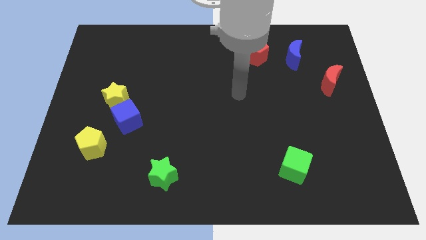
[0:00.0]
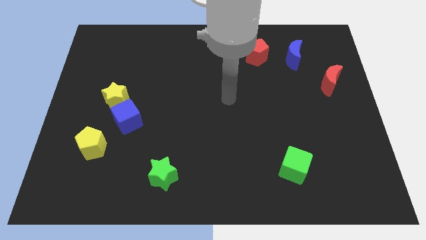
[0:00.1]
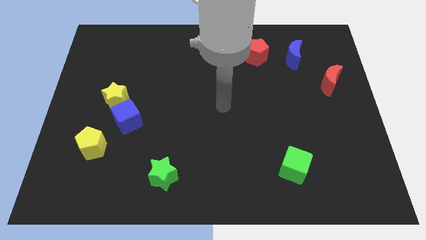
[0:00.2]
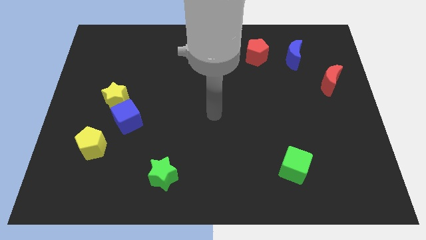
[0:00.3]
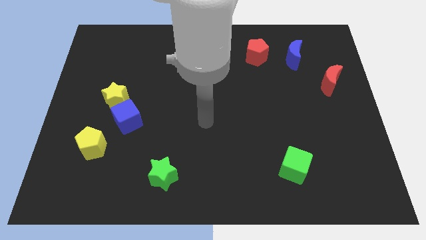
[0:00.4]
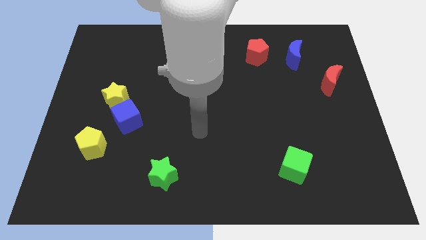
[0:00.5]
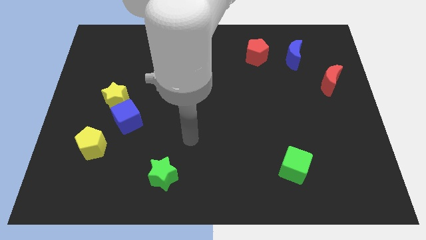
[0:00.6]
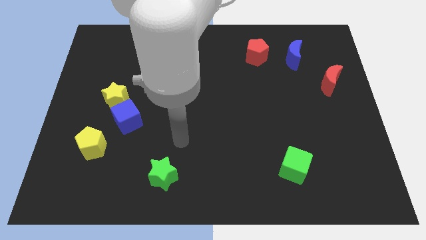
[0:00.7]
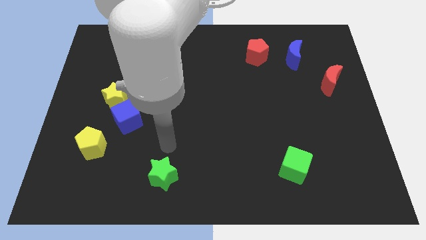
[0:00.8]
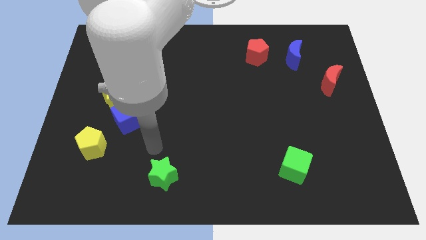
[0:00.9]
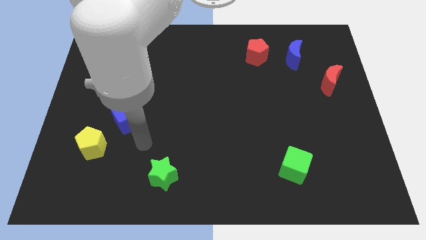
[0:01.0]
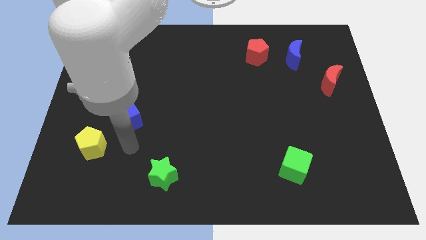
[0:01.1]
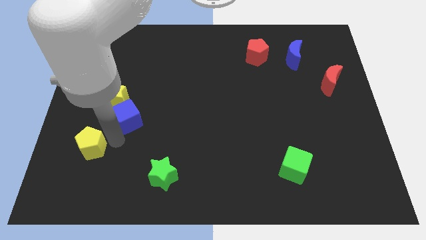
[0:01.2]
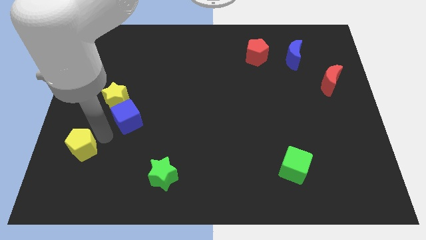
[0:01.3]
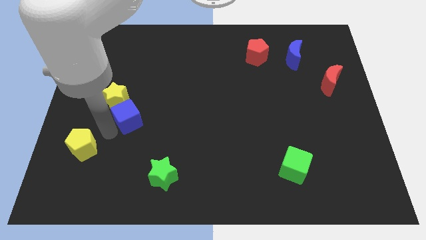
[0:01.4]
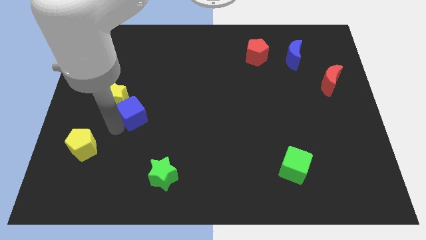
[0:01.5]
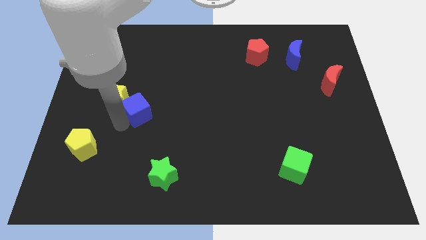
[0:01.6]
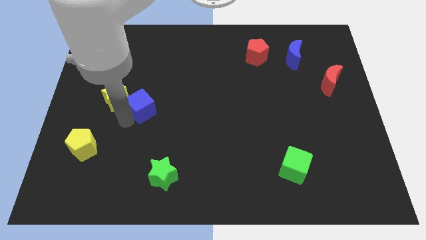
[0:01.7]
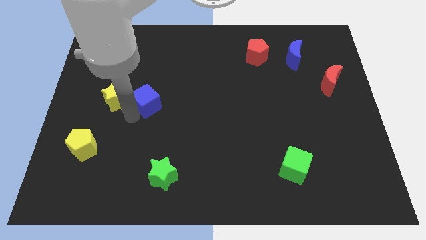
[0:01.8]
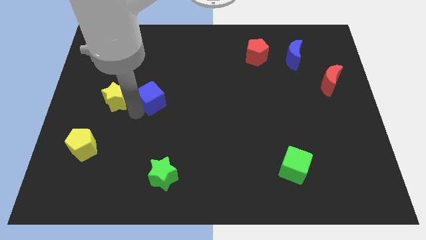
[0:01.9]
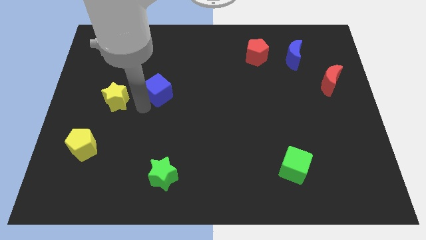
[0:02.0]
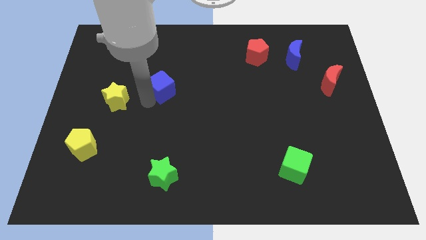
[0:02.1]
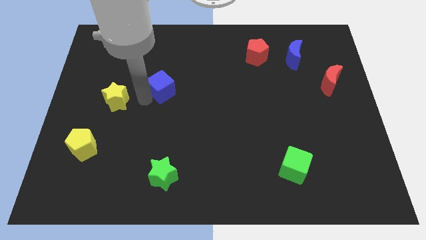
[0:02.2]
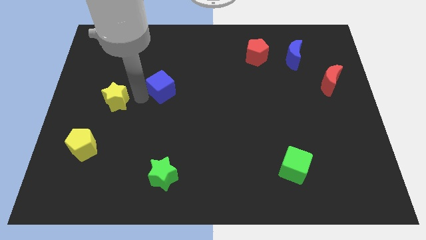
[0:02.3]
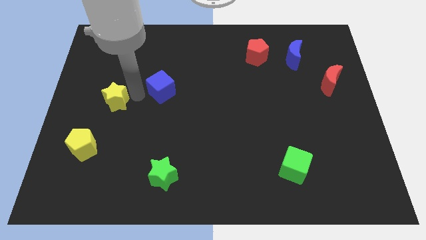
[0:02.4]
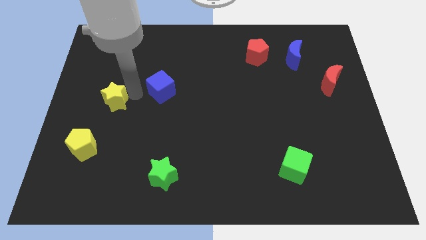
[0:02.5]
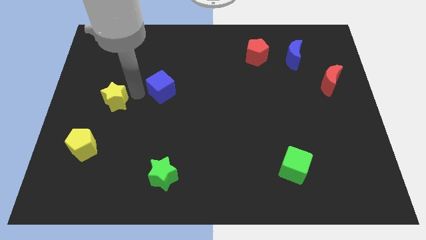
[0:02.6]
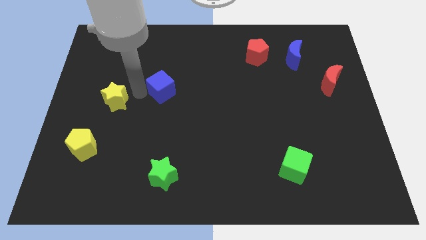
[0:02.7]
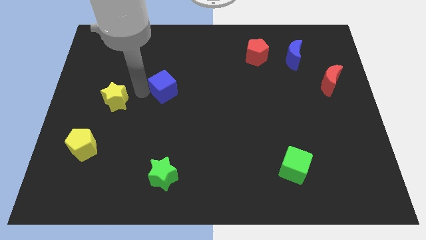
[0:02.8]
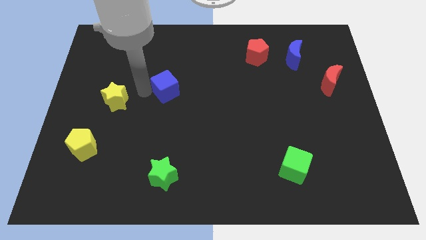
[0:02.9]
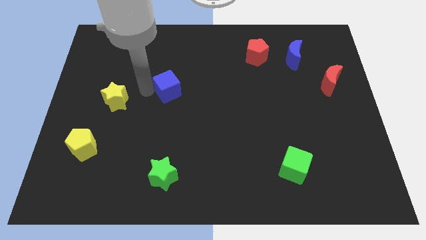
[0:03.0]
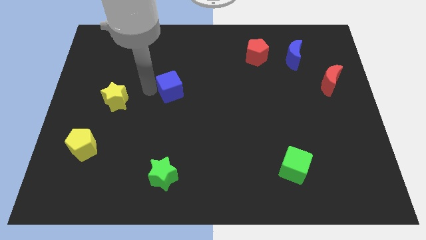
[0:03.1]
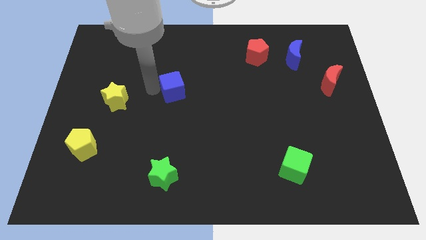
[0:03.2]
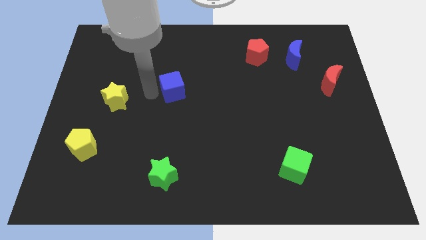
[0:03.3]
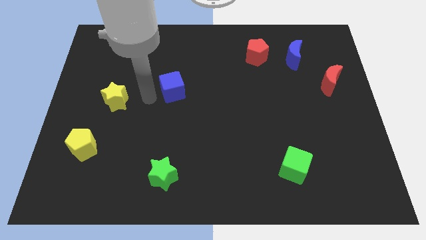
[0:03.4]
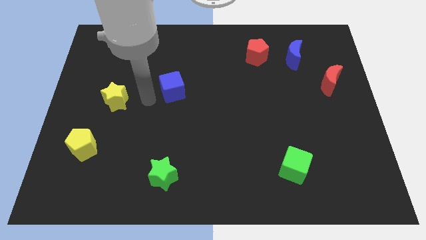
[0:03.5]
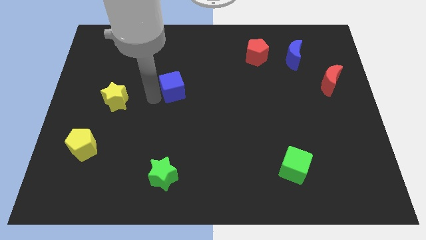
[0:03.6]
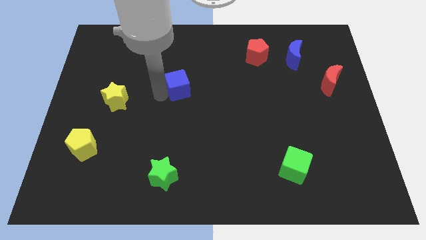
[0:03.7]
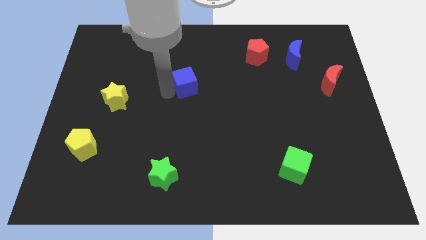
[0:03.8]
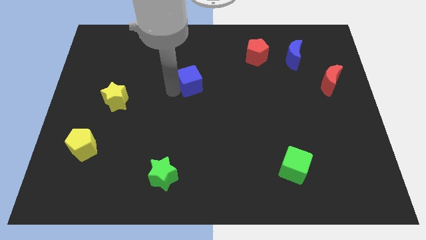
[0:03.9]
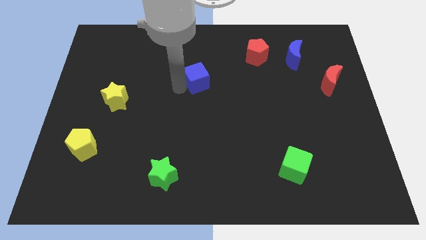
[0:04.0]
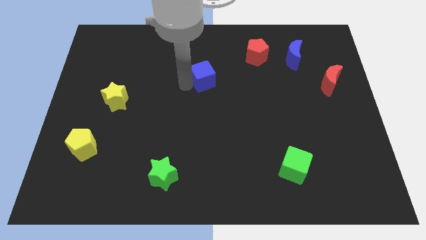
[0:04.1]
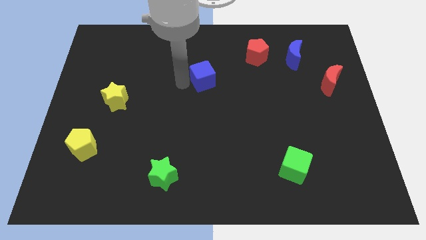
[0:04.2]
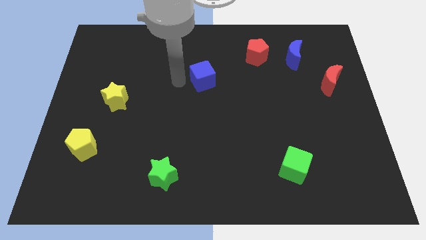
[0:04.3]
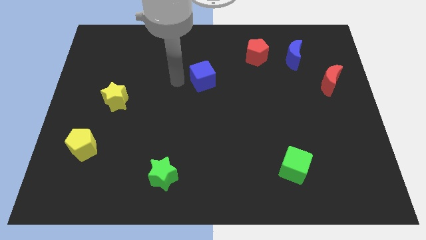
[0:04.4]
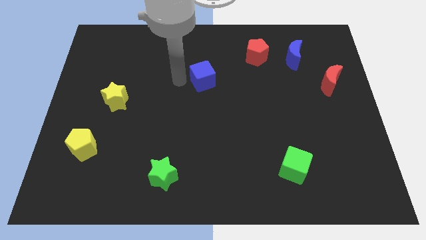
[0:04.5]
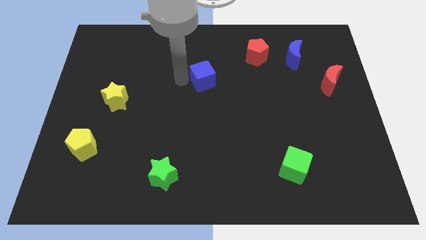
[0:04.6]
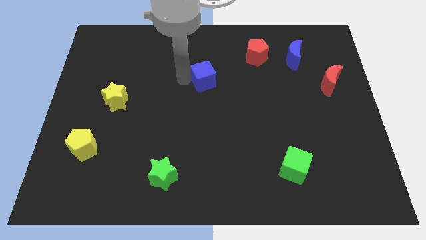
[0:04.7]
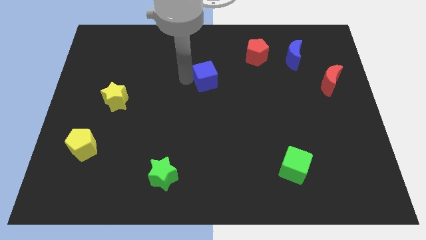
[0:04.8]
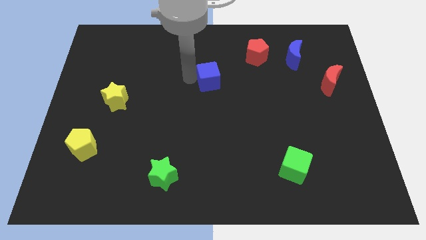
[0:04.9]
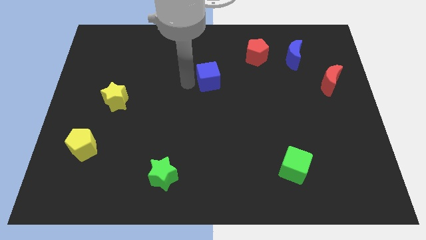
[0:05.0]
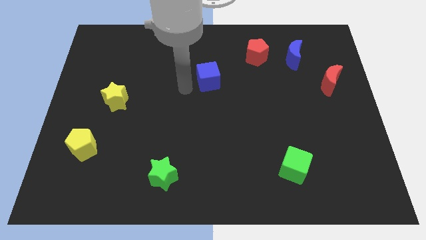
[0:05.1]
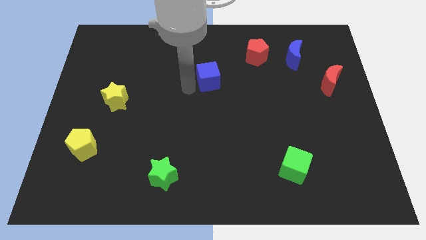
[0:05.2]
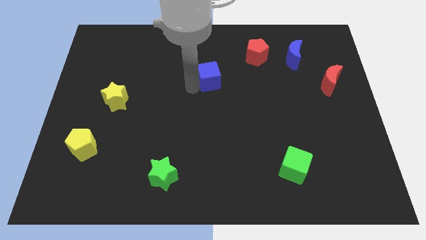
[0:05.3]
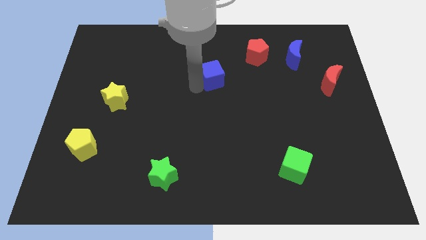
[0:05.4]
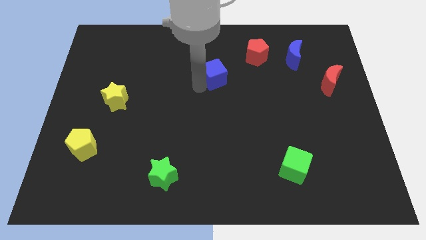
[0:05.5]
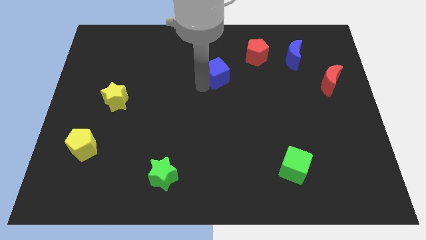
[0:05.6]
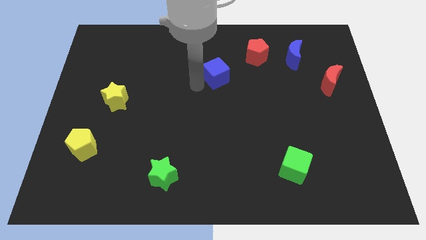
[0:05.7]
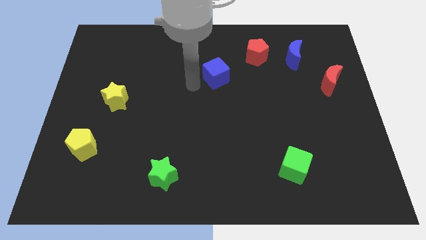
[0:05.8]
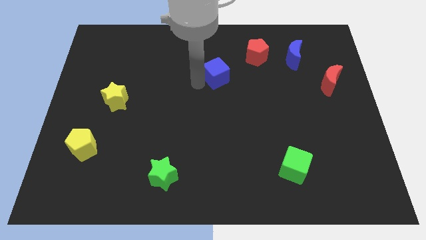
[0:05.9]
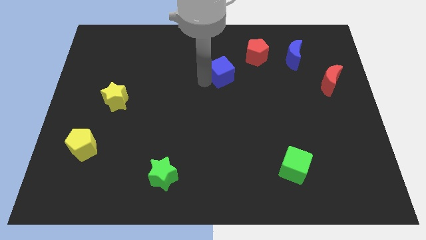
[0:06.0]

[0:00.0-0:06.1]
put the blue cube diagonally down and to the left of the red pentagon

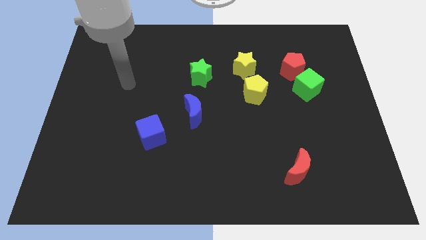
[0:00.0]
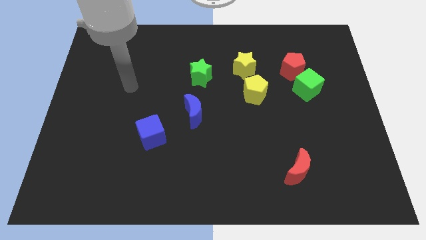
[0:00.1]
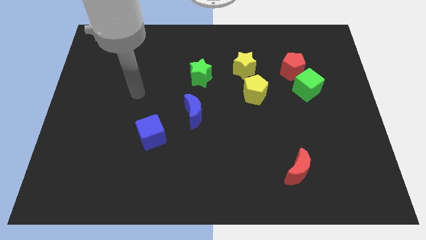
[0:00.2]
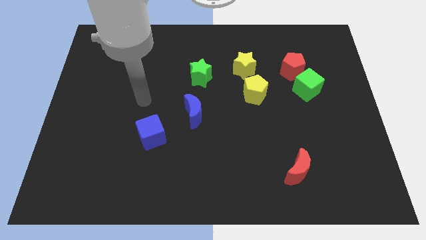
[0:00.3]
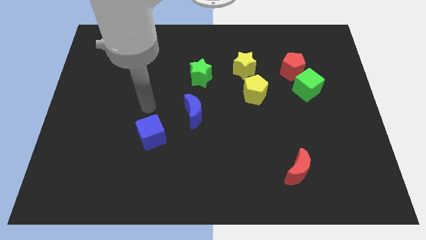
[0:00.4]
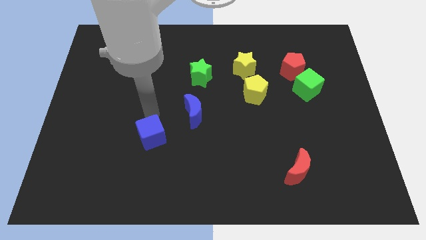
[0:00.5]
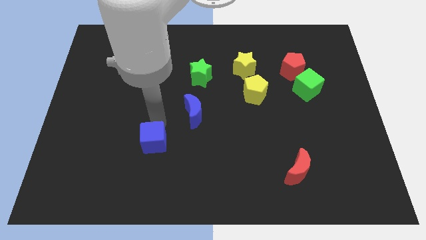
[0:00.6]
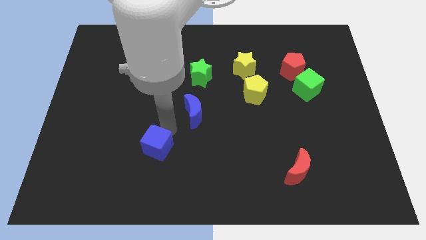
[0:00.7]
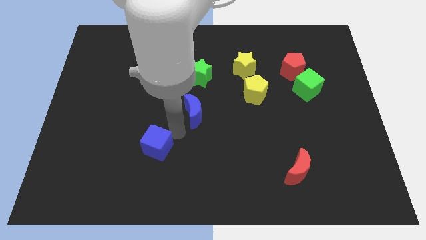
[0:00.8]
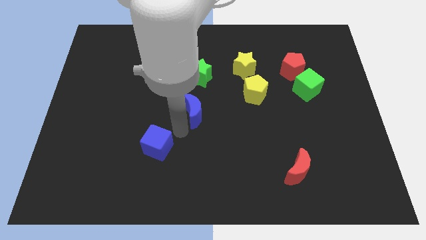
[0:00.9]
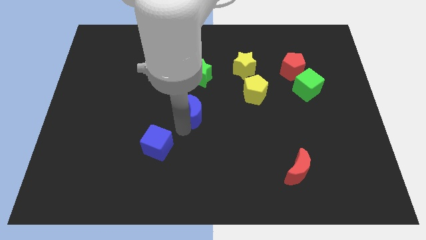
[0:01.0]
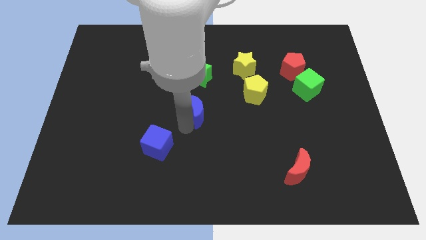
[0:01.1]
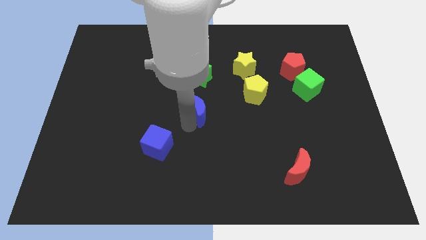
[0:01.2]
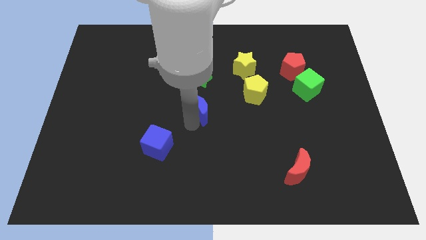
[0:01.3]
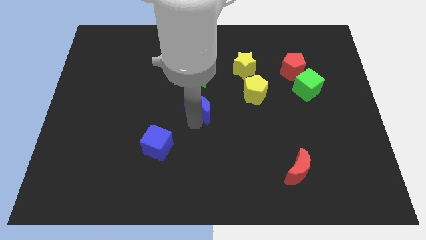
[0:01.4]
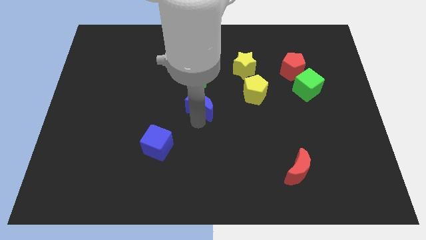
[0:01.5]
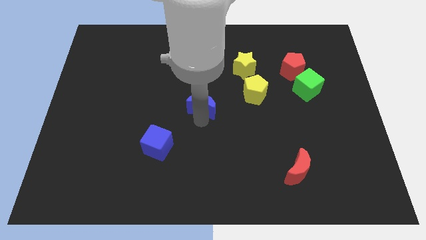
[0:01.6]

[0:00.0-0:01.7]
push the blue moon left of the yellow pentagon
